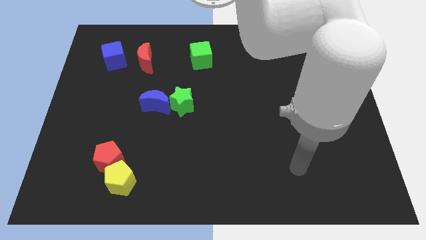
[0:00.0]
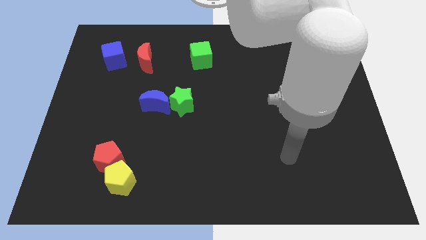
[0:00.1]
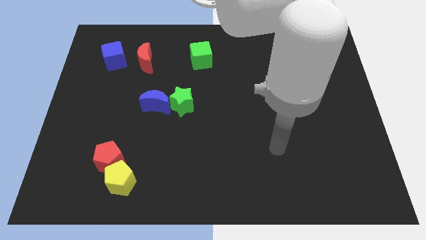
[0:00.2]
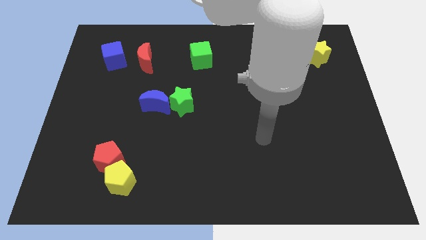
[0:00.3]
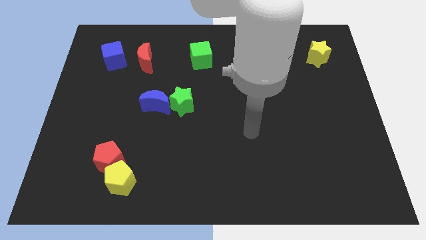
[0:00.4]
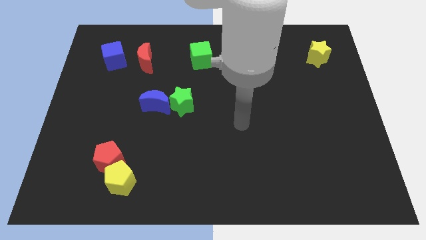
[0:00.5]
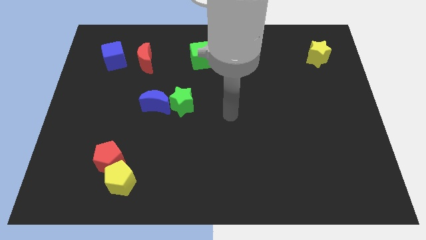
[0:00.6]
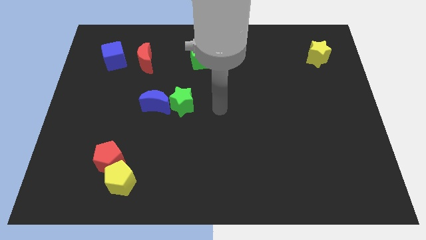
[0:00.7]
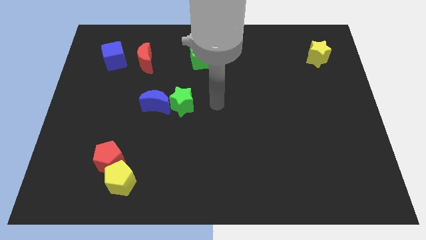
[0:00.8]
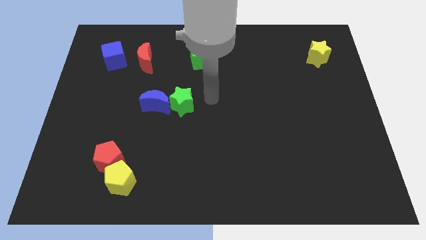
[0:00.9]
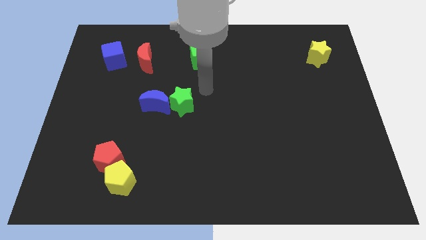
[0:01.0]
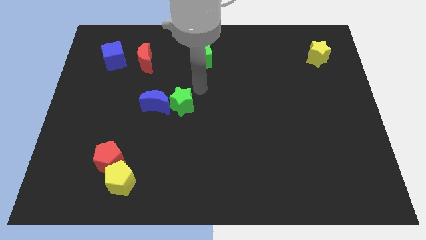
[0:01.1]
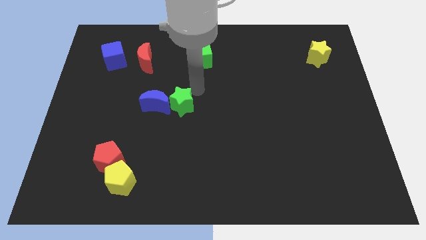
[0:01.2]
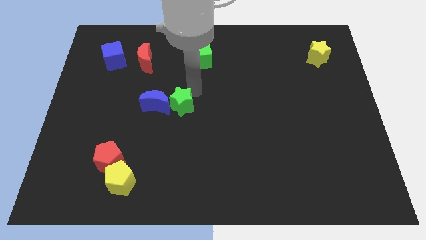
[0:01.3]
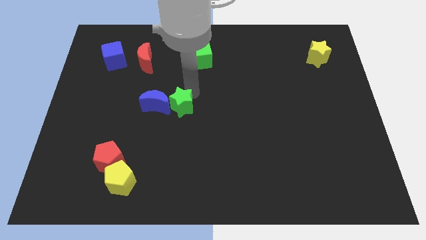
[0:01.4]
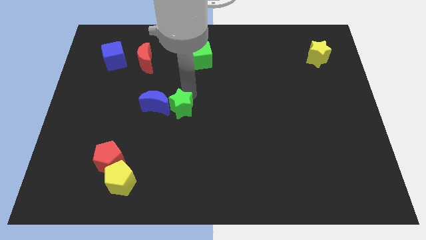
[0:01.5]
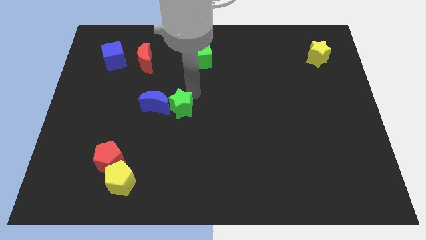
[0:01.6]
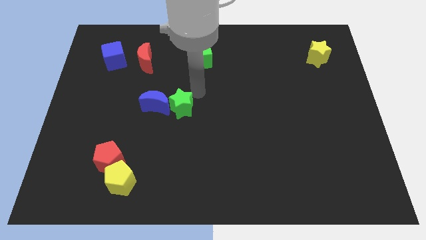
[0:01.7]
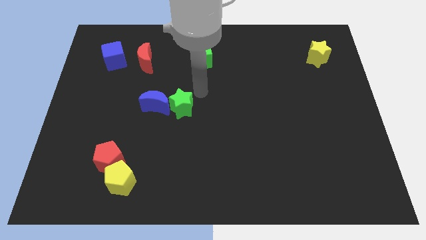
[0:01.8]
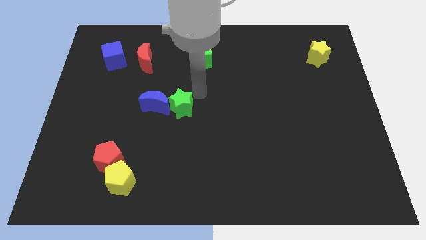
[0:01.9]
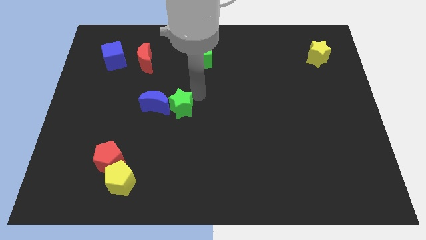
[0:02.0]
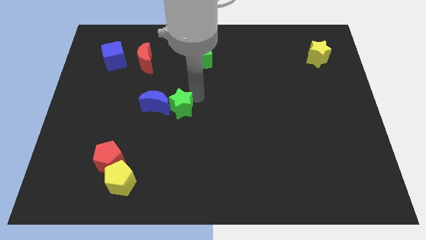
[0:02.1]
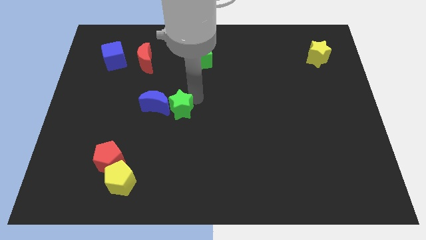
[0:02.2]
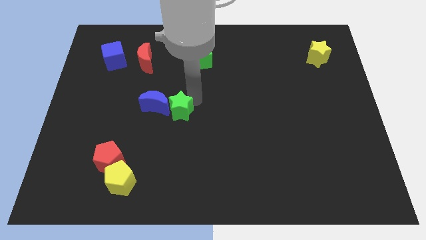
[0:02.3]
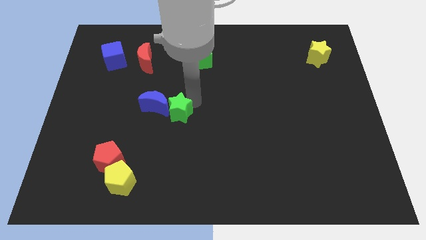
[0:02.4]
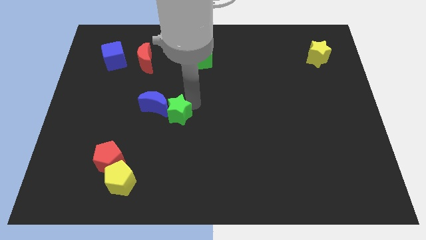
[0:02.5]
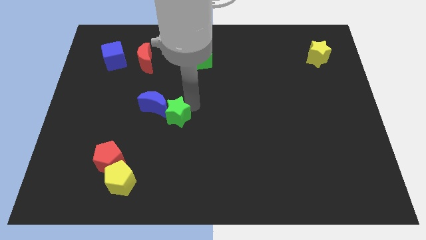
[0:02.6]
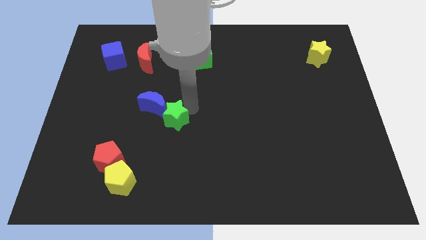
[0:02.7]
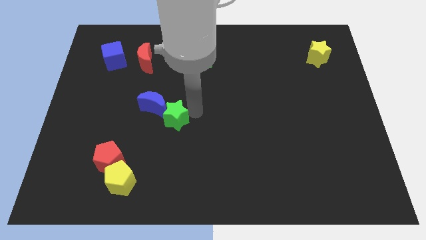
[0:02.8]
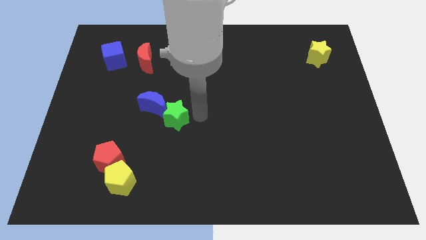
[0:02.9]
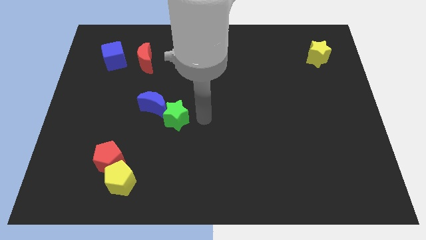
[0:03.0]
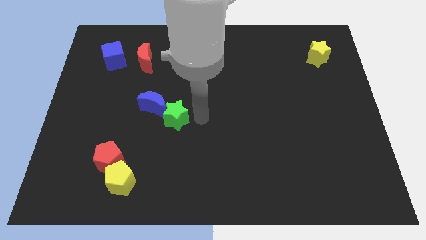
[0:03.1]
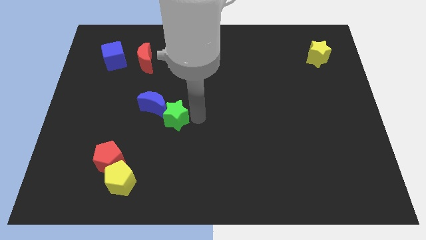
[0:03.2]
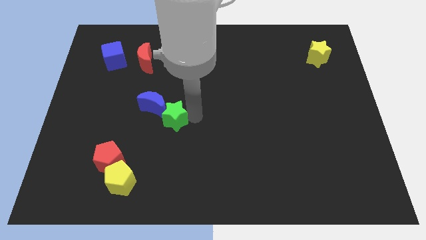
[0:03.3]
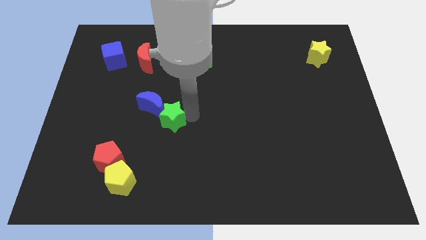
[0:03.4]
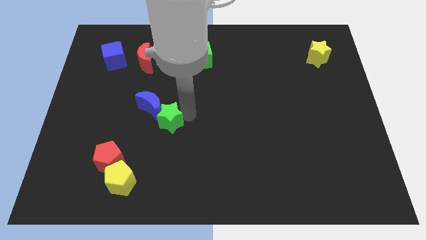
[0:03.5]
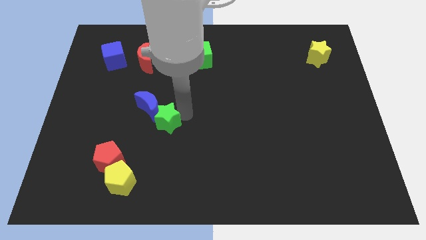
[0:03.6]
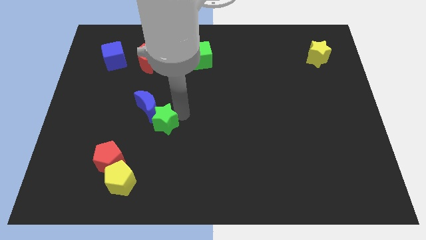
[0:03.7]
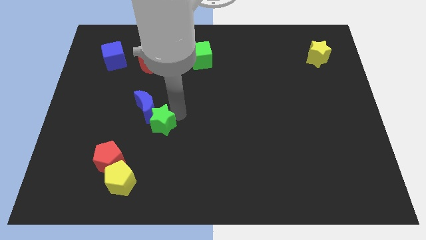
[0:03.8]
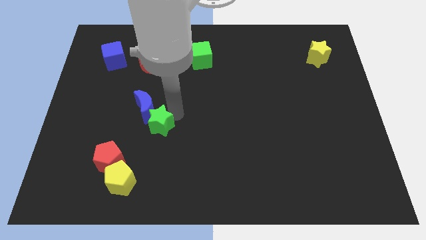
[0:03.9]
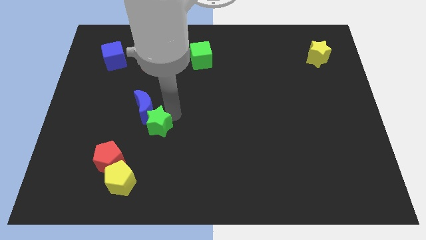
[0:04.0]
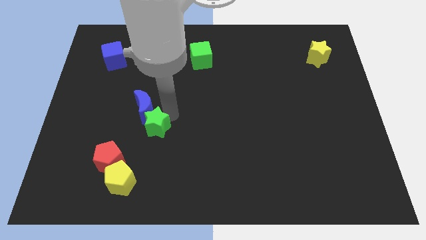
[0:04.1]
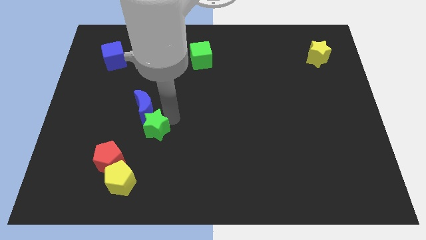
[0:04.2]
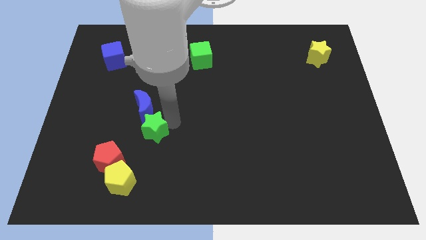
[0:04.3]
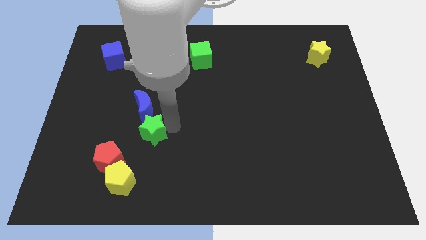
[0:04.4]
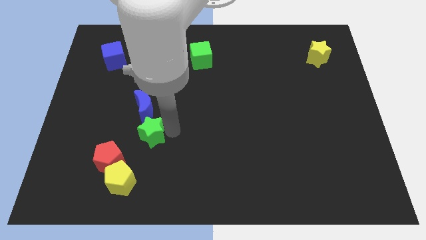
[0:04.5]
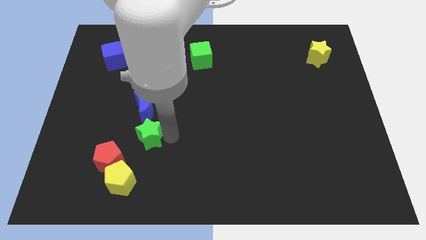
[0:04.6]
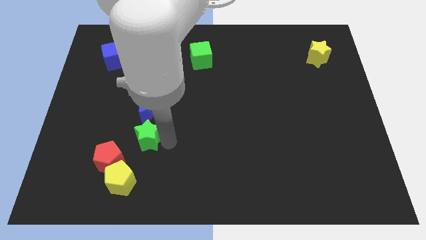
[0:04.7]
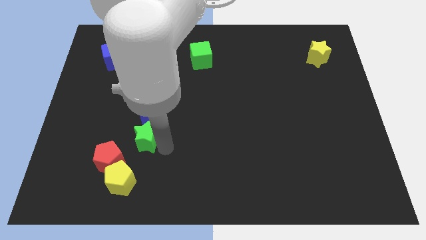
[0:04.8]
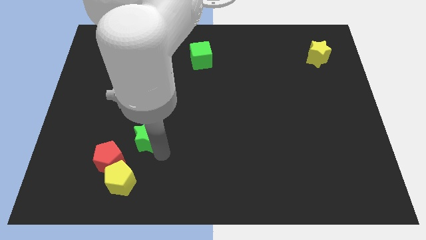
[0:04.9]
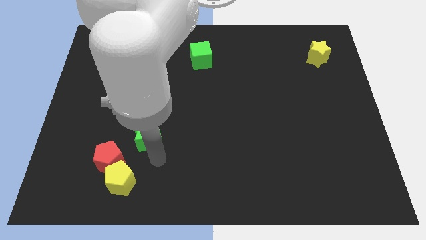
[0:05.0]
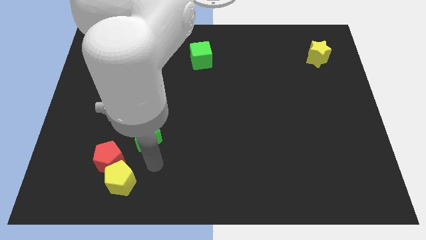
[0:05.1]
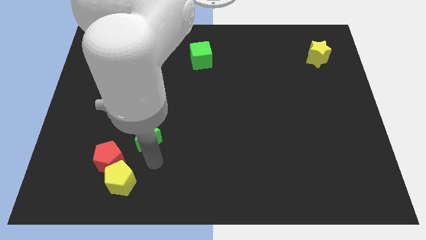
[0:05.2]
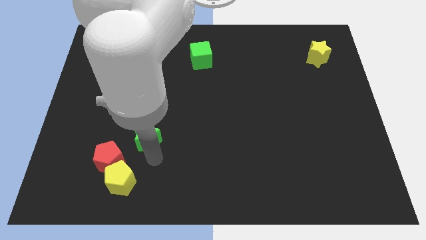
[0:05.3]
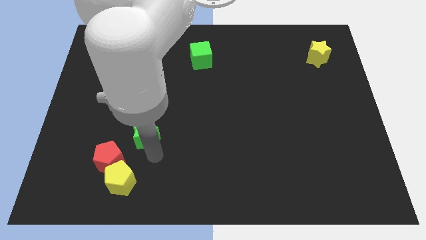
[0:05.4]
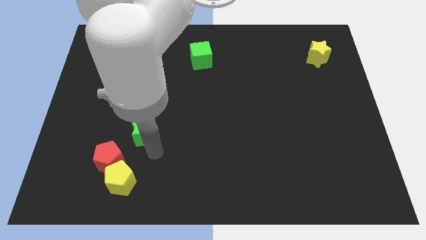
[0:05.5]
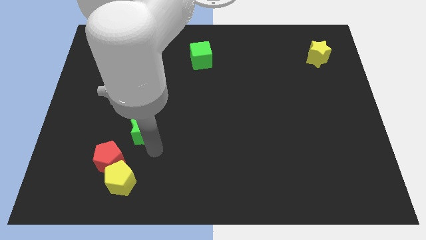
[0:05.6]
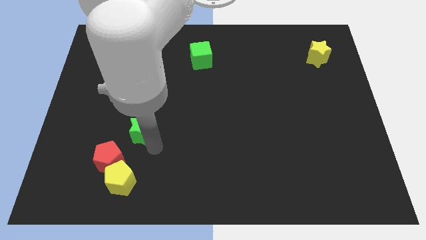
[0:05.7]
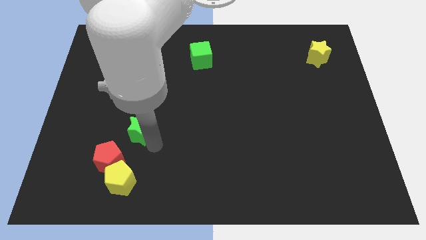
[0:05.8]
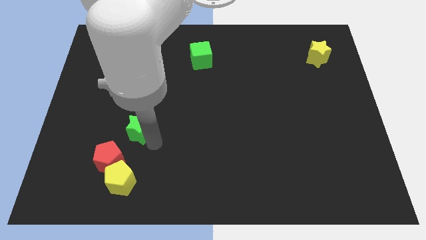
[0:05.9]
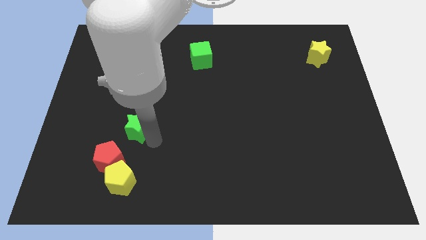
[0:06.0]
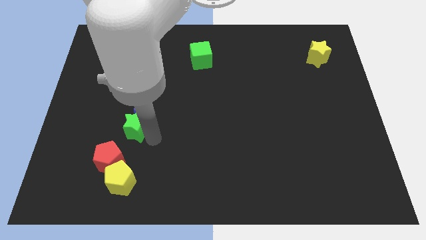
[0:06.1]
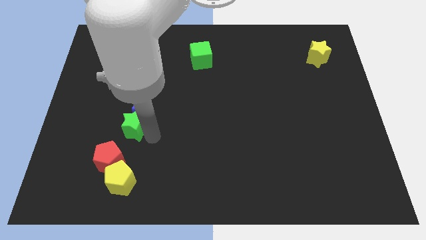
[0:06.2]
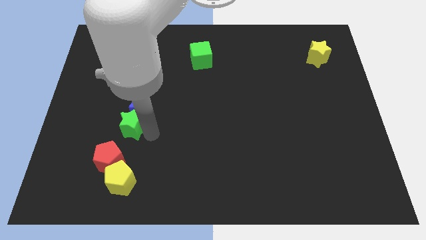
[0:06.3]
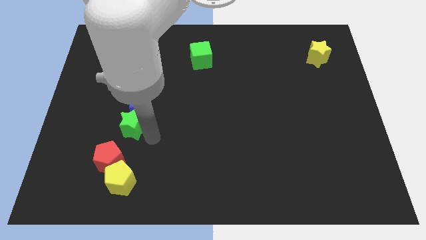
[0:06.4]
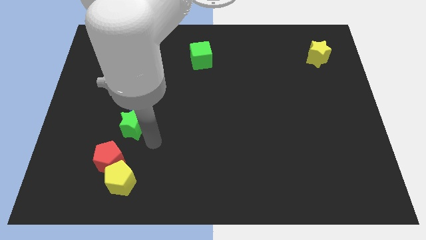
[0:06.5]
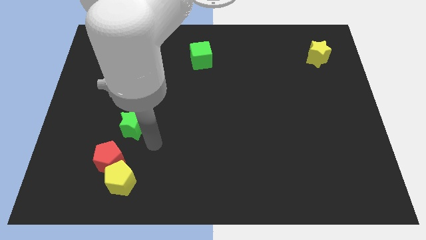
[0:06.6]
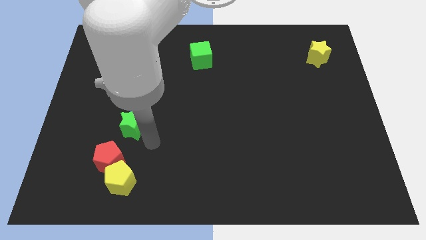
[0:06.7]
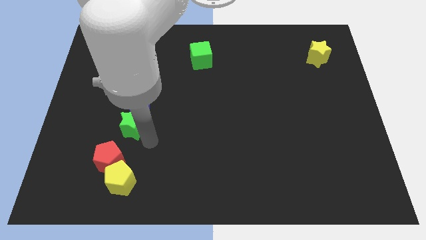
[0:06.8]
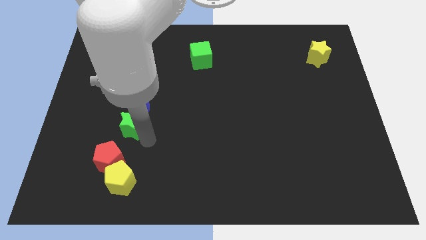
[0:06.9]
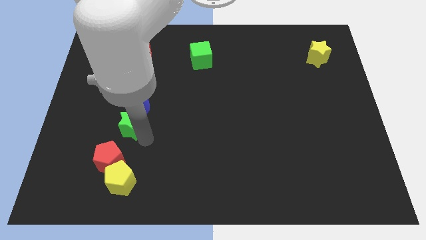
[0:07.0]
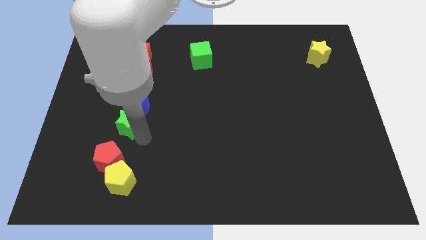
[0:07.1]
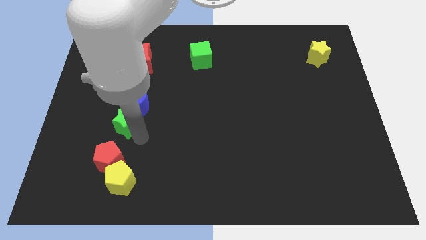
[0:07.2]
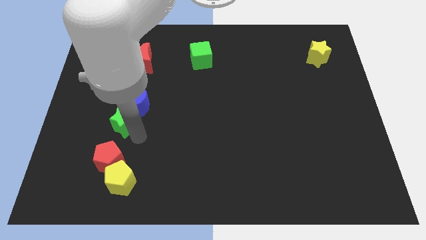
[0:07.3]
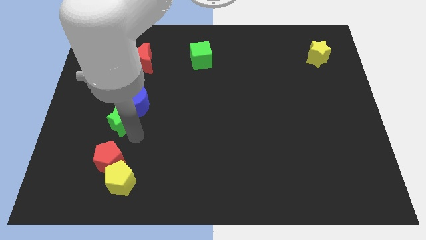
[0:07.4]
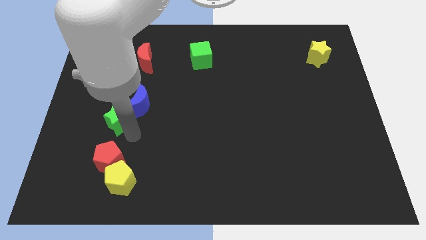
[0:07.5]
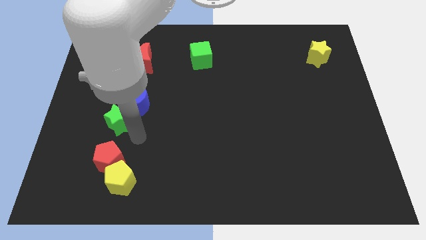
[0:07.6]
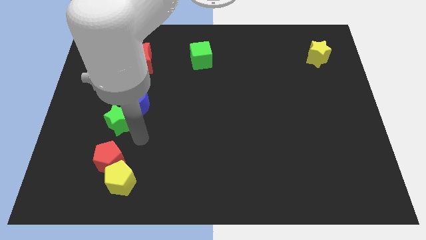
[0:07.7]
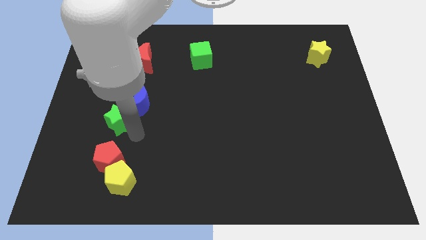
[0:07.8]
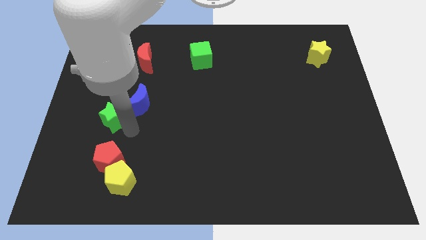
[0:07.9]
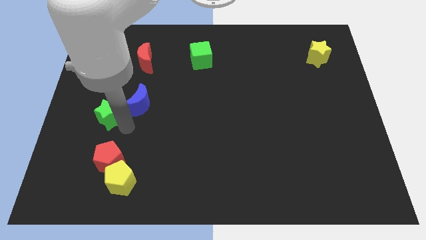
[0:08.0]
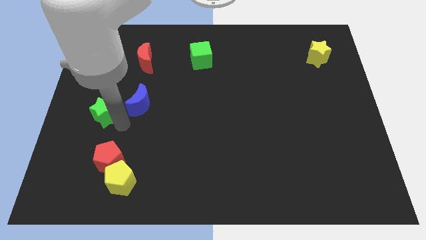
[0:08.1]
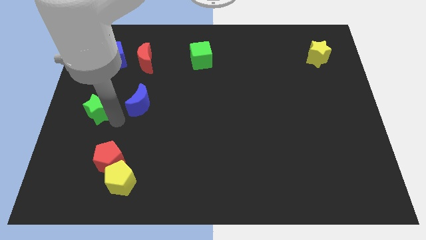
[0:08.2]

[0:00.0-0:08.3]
put the green star to the left side of the board
